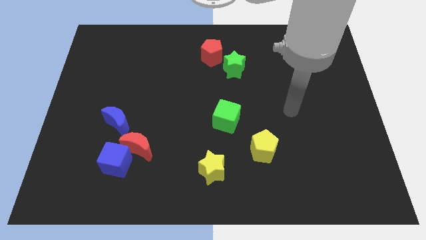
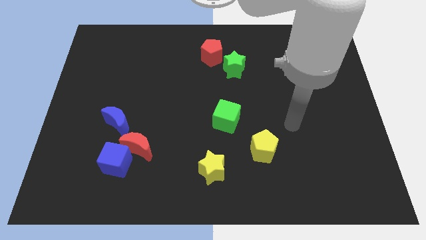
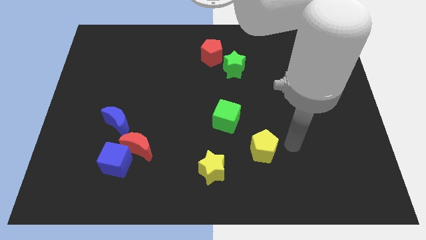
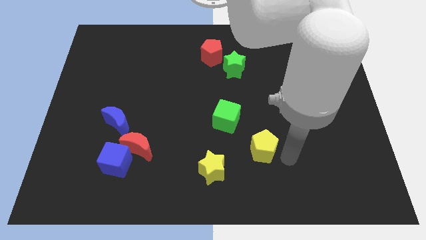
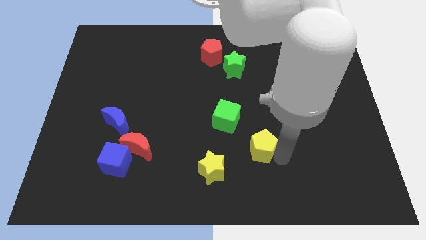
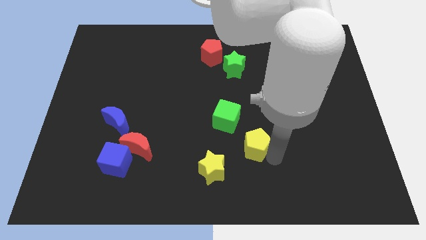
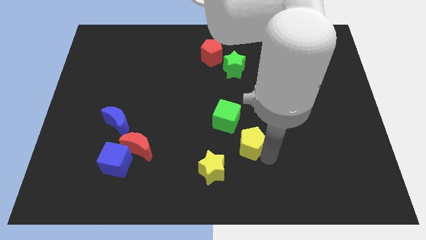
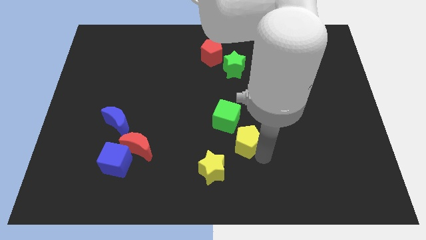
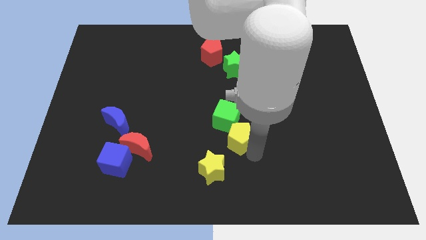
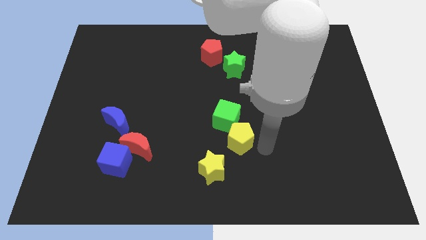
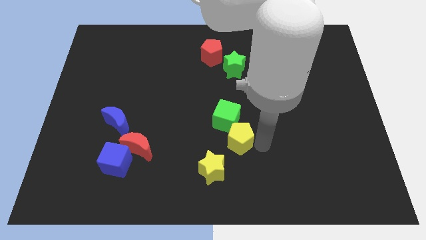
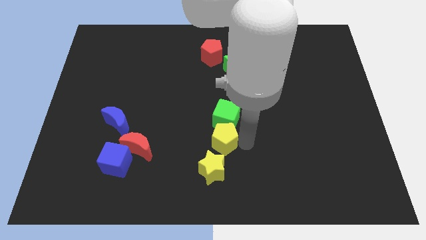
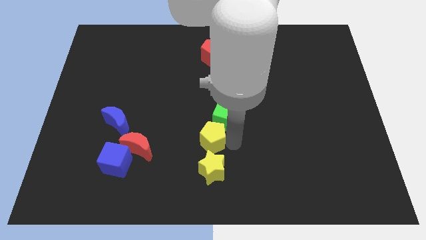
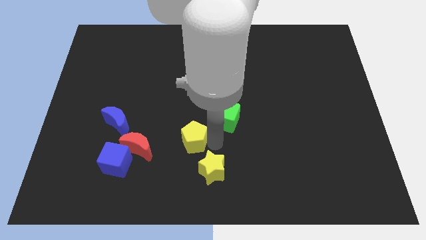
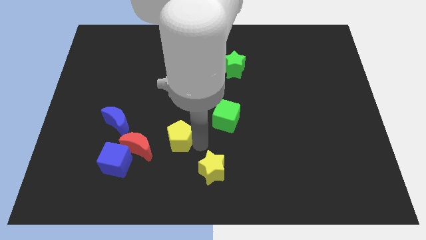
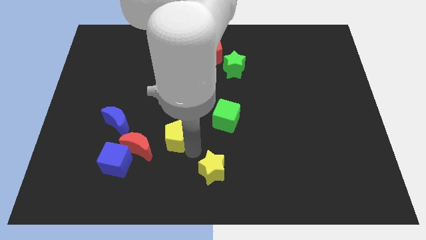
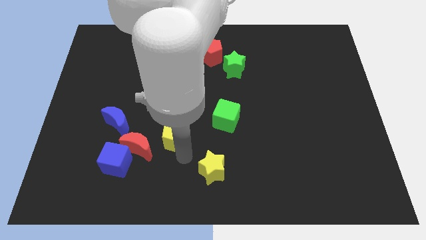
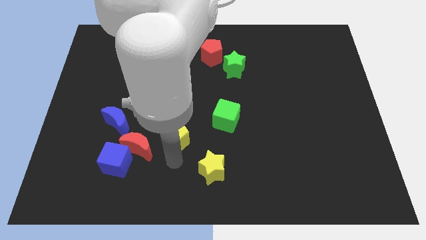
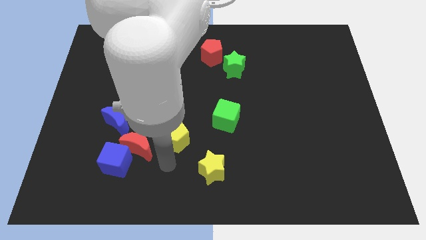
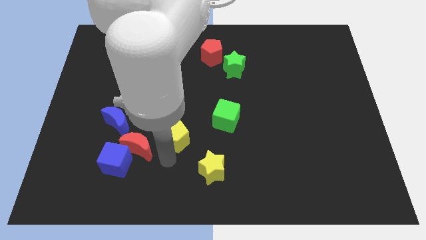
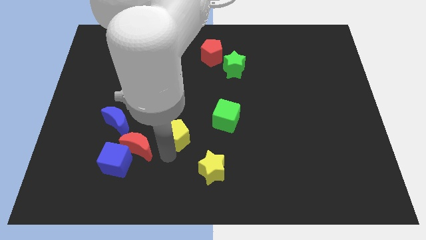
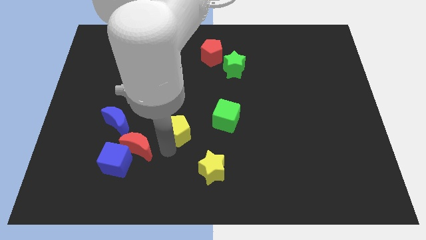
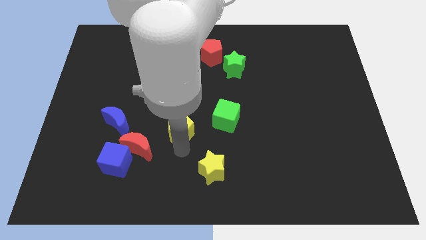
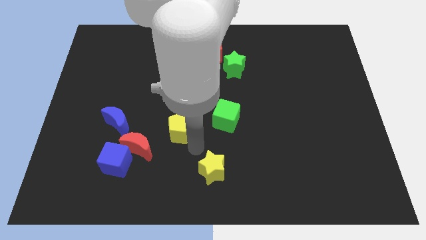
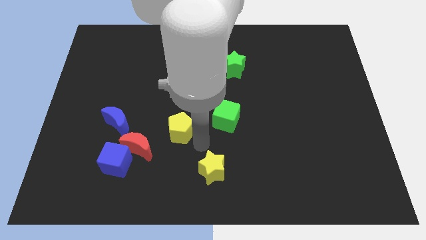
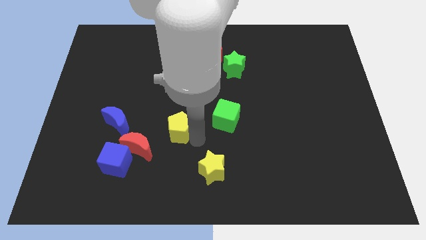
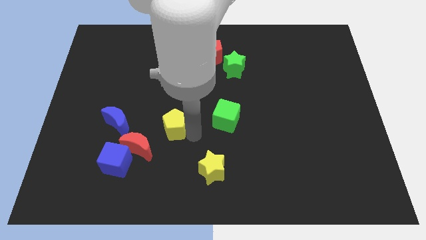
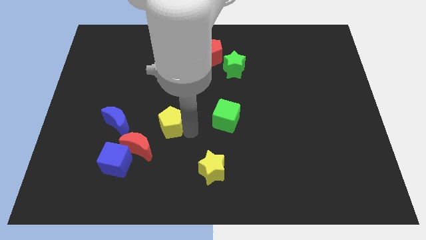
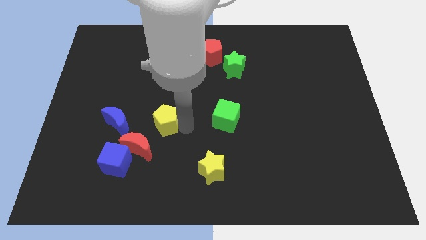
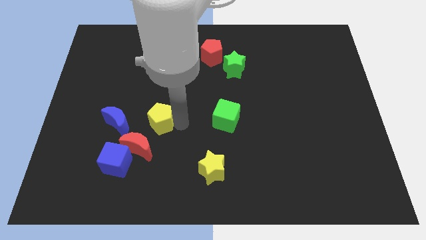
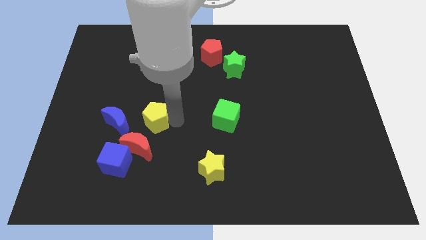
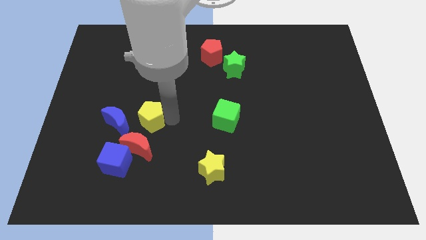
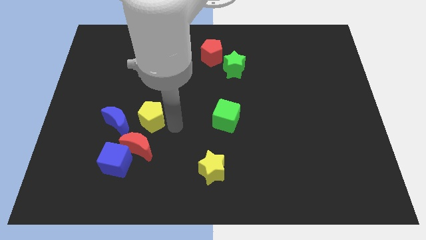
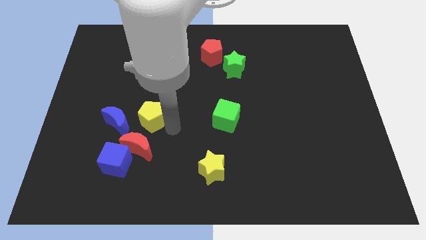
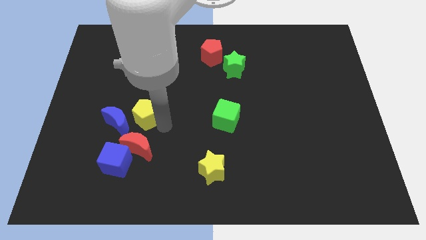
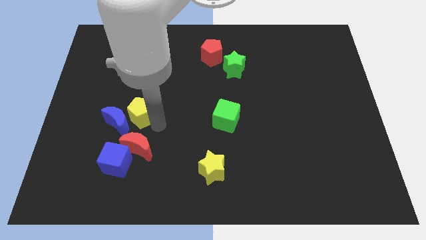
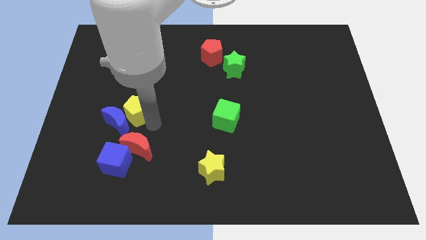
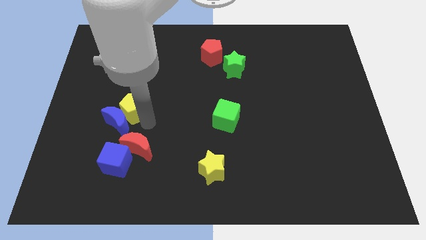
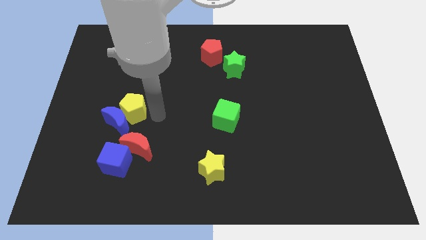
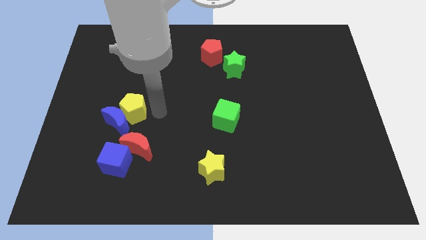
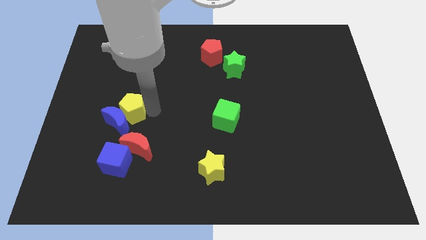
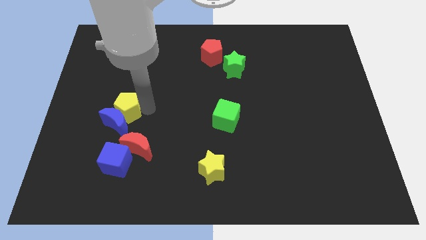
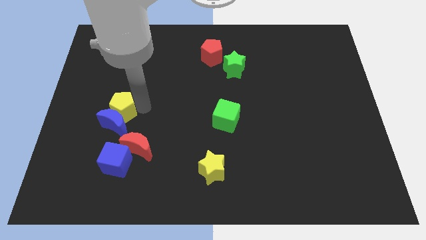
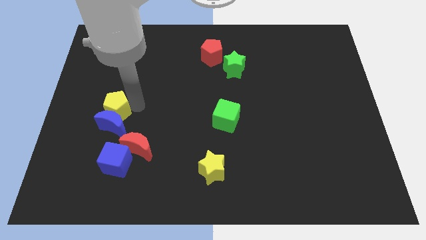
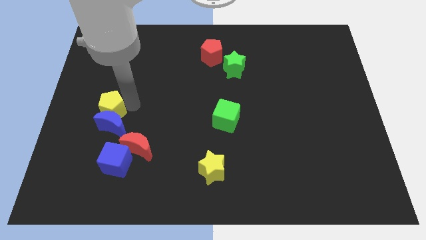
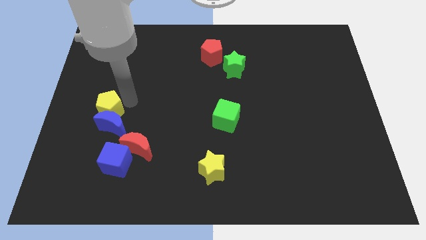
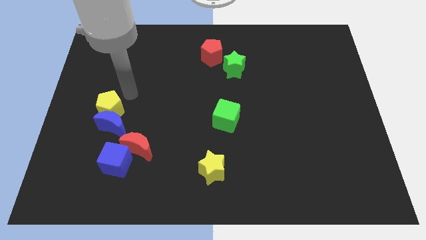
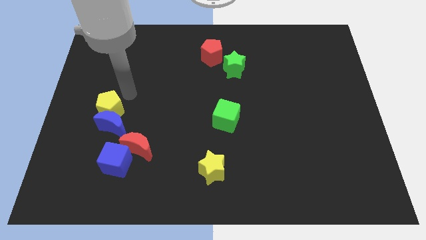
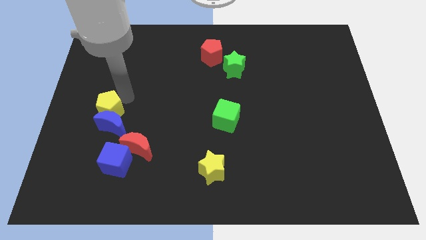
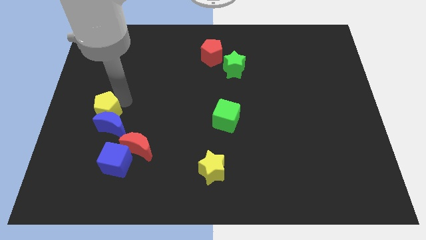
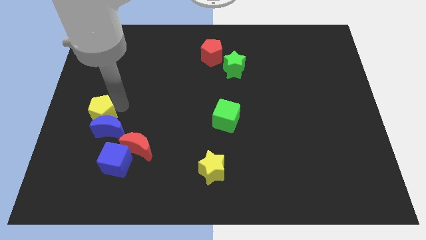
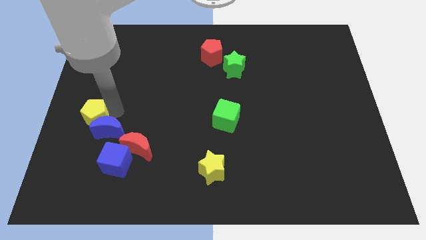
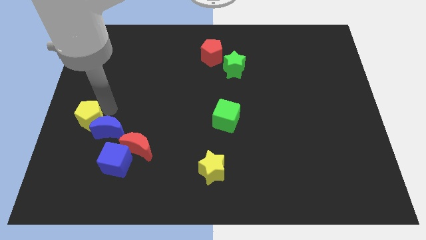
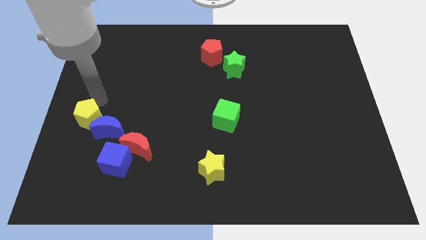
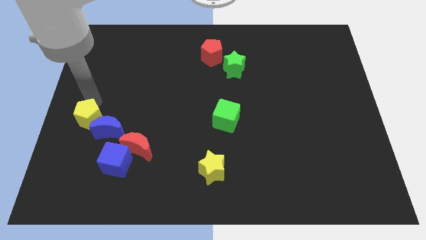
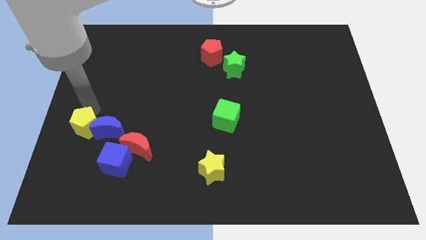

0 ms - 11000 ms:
put the yellow pentagon to the bottom left side of the blue moon
